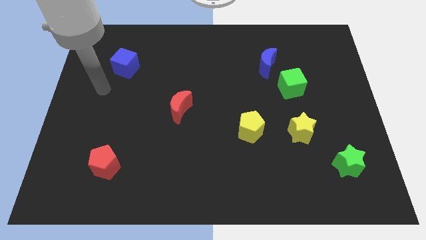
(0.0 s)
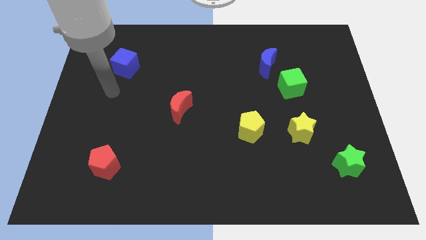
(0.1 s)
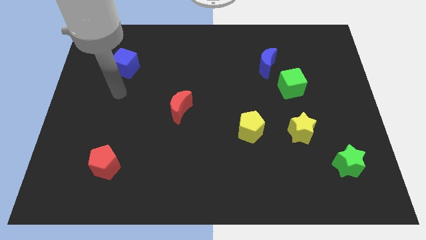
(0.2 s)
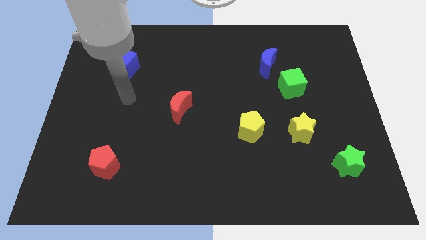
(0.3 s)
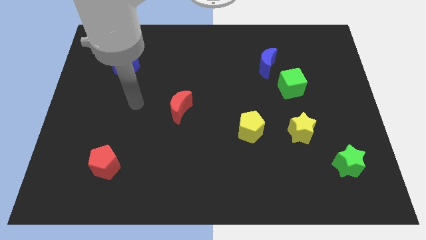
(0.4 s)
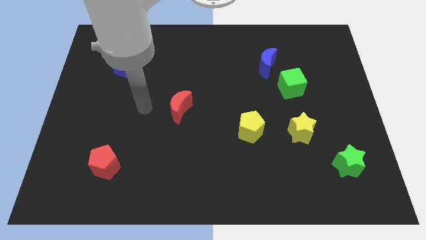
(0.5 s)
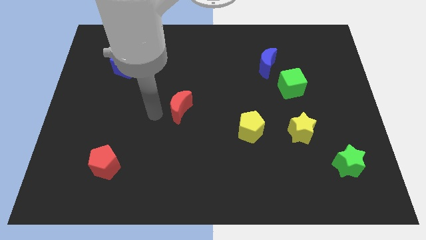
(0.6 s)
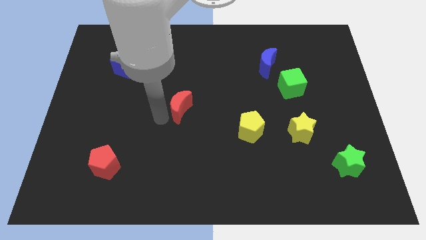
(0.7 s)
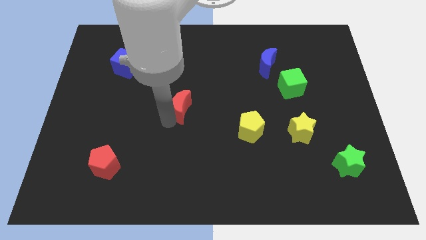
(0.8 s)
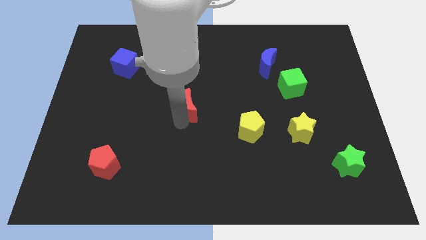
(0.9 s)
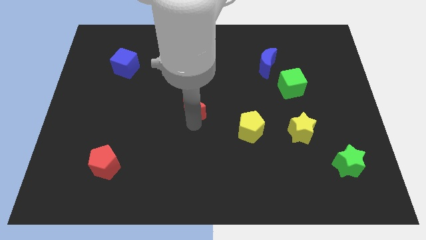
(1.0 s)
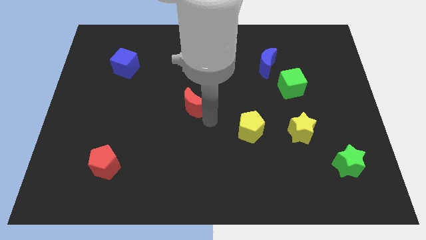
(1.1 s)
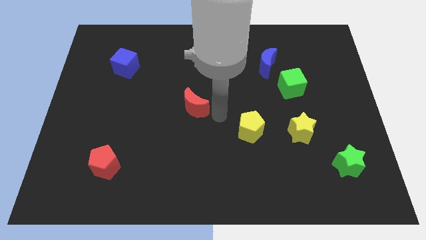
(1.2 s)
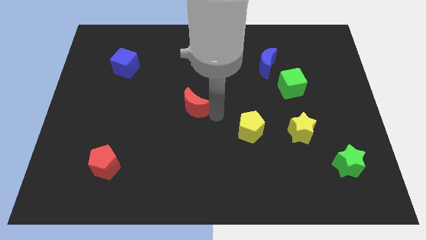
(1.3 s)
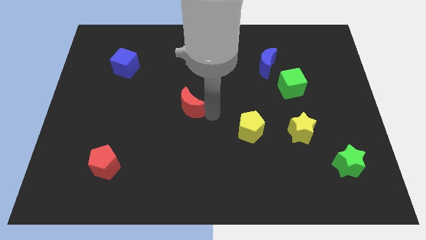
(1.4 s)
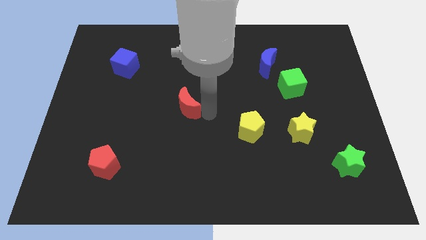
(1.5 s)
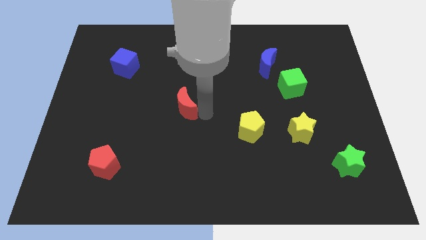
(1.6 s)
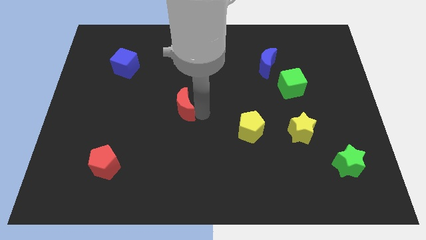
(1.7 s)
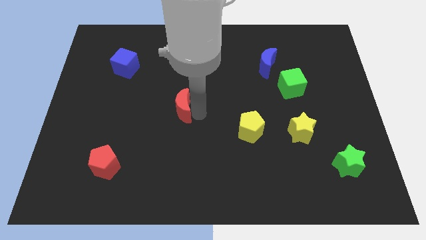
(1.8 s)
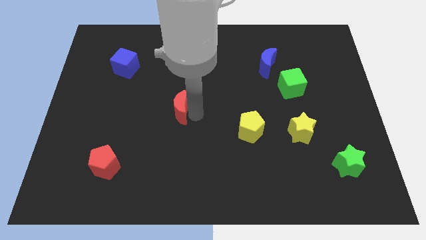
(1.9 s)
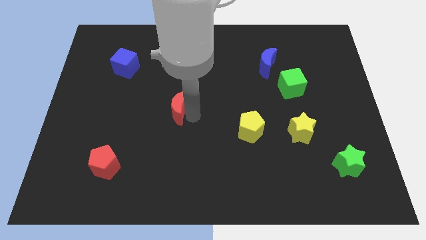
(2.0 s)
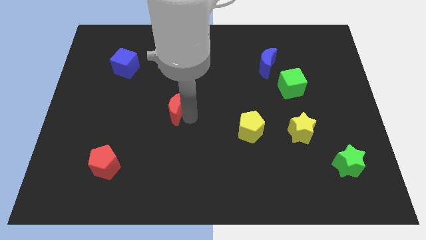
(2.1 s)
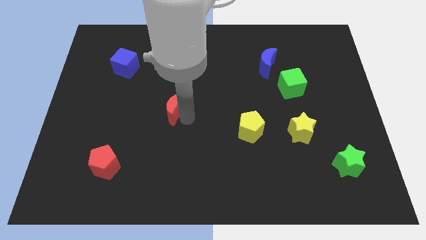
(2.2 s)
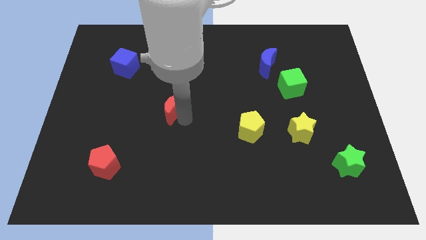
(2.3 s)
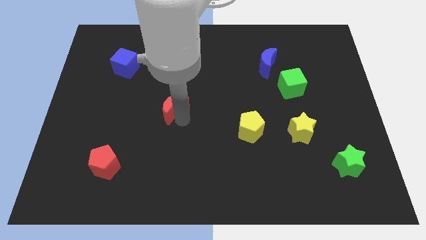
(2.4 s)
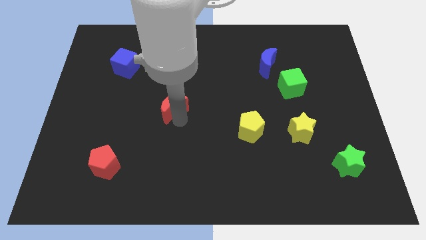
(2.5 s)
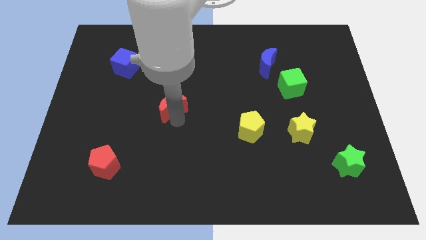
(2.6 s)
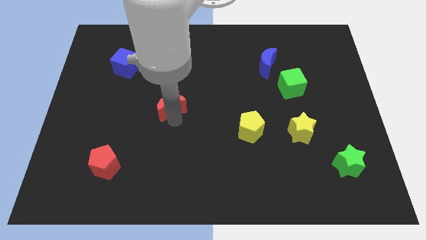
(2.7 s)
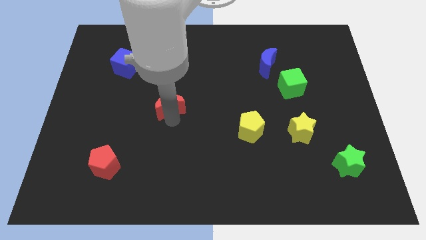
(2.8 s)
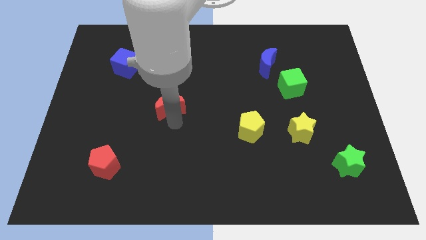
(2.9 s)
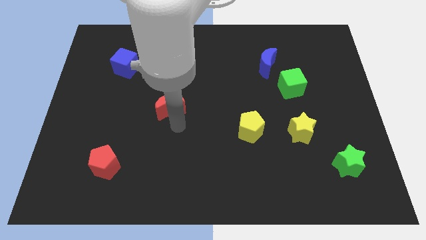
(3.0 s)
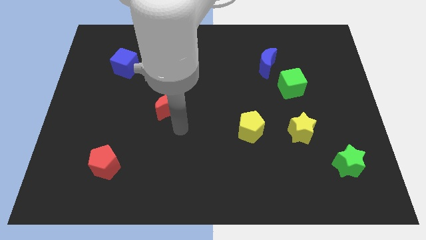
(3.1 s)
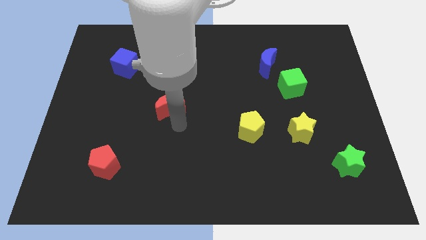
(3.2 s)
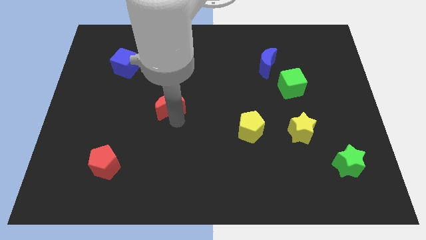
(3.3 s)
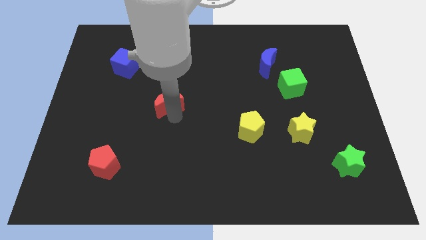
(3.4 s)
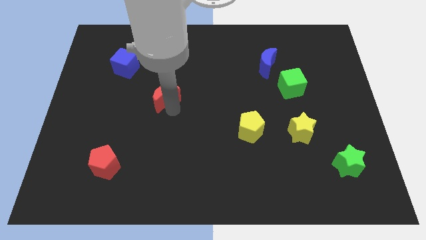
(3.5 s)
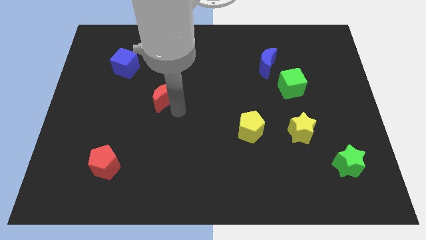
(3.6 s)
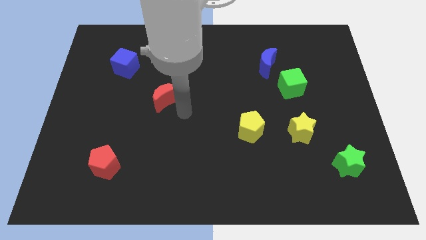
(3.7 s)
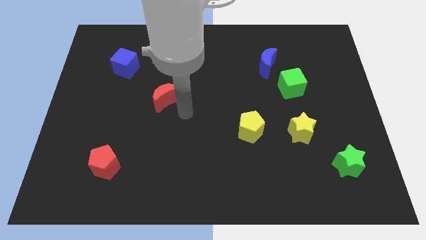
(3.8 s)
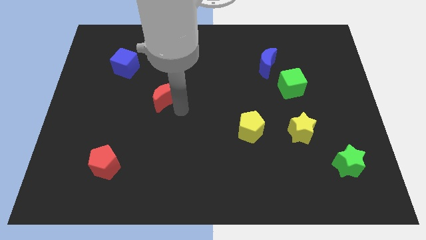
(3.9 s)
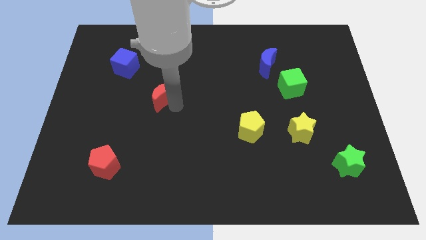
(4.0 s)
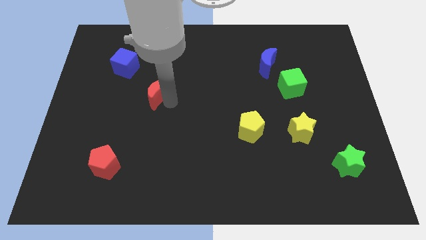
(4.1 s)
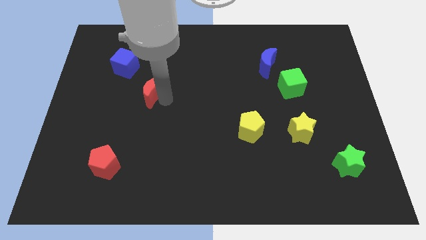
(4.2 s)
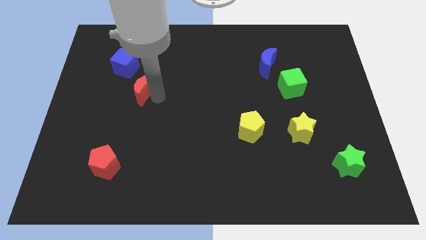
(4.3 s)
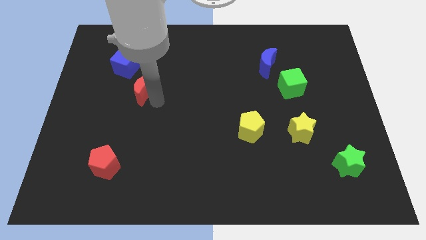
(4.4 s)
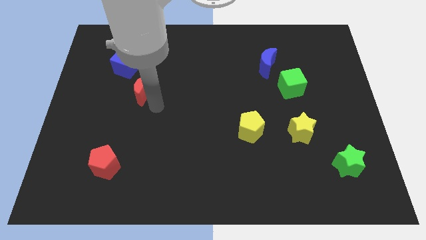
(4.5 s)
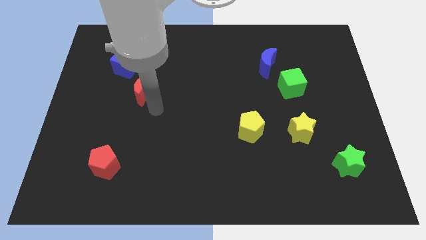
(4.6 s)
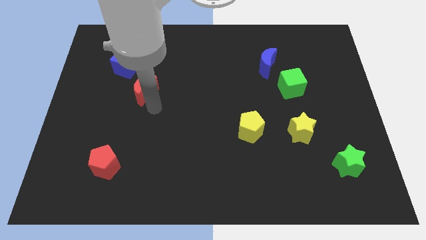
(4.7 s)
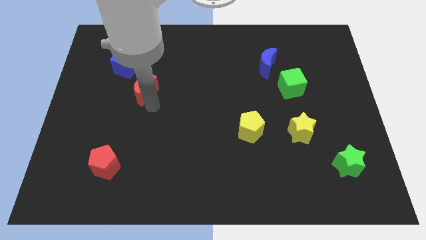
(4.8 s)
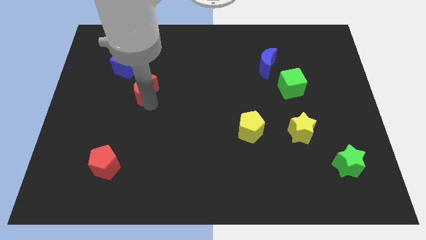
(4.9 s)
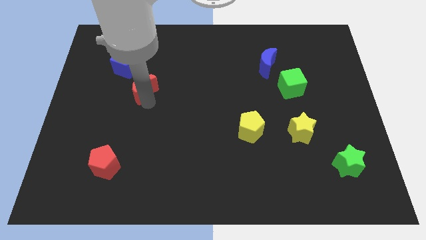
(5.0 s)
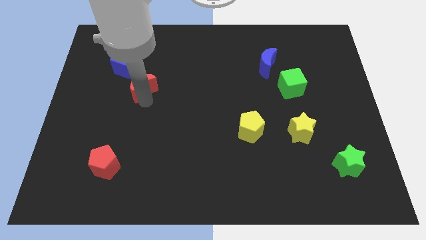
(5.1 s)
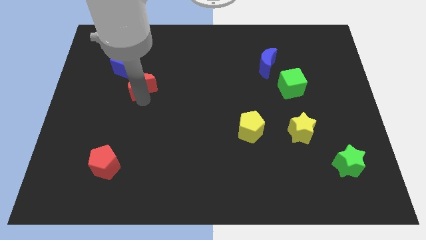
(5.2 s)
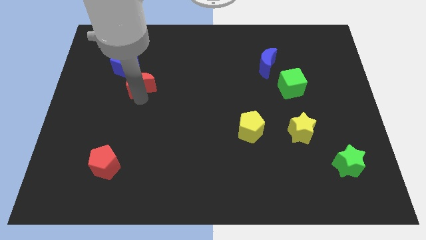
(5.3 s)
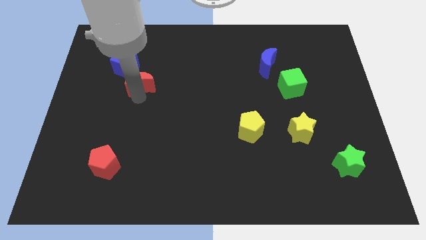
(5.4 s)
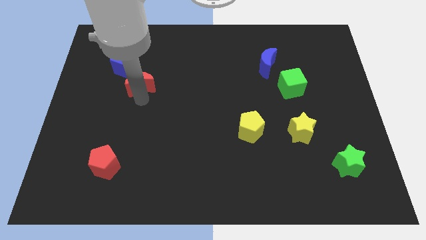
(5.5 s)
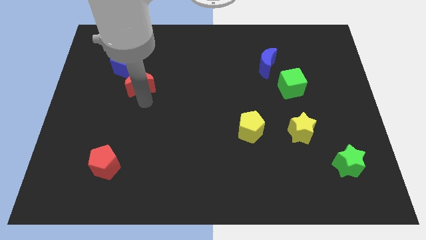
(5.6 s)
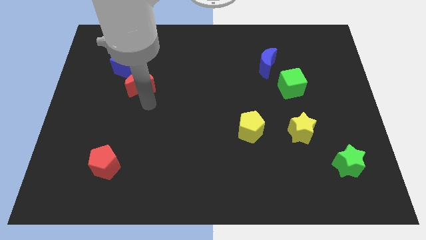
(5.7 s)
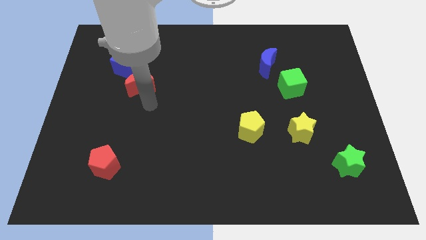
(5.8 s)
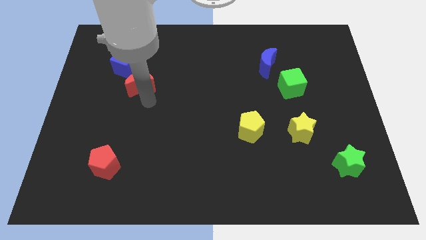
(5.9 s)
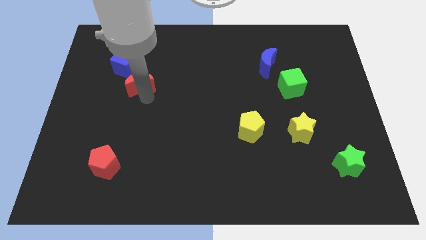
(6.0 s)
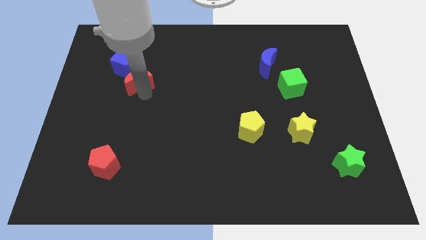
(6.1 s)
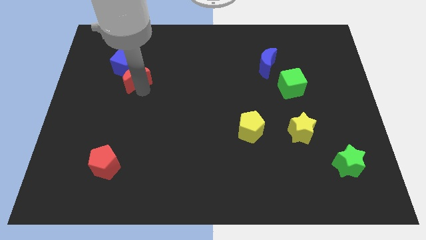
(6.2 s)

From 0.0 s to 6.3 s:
move the red moon towards the blue cube

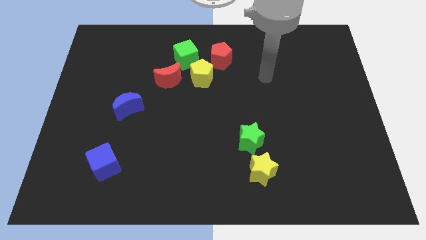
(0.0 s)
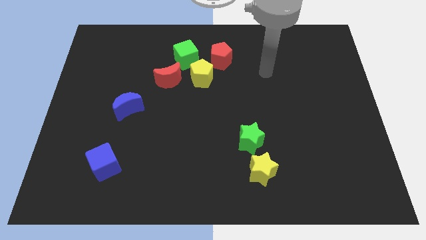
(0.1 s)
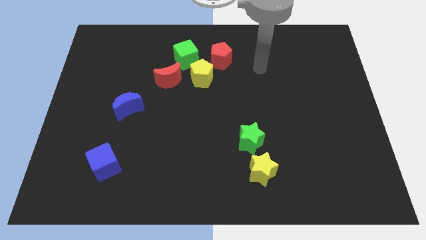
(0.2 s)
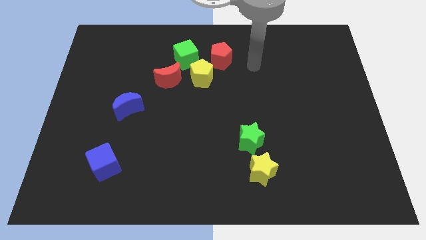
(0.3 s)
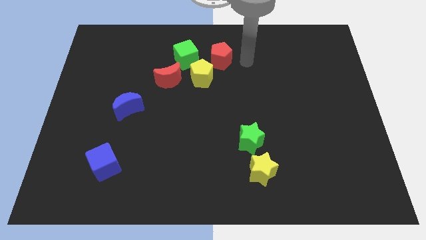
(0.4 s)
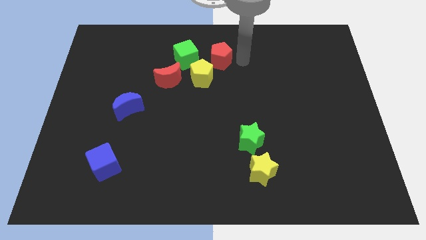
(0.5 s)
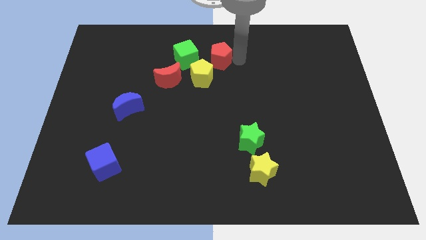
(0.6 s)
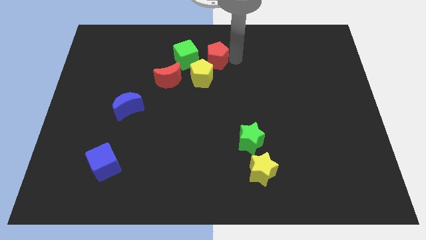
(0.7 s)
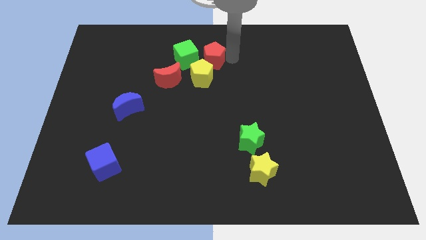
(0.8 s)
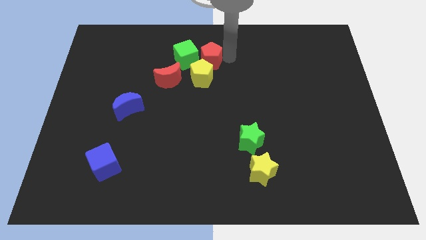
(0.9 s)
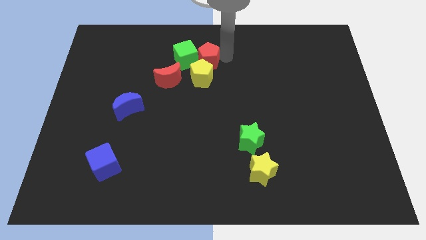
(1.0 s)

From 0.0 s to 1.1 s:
slide the red pentagon towards the green cube

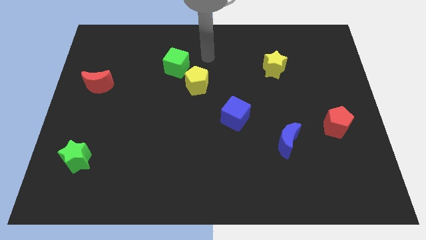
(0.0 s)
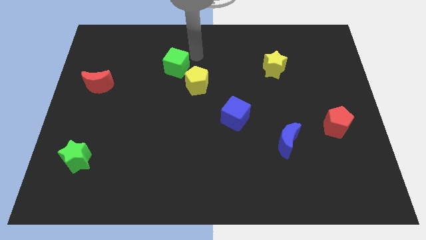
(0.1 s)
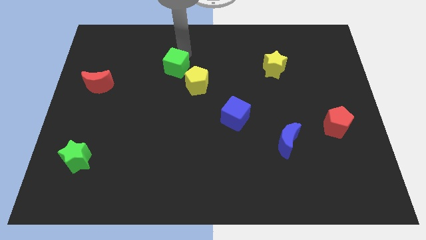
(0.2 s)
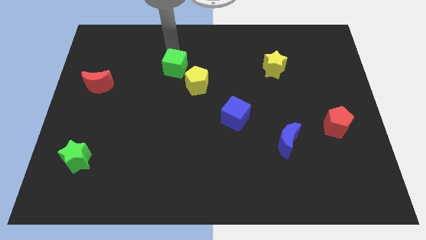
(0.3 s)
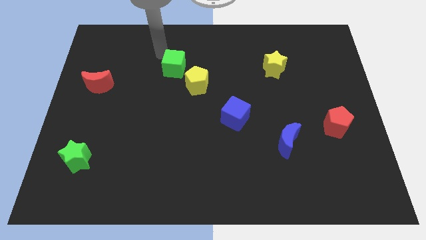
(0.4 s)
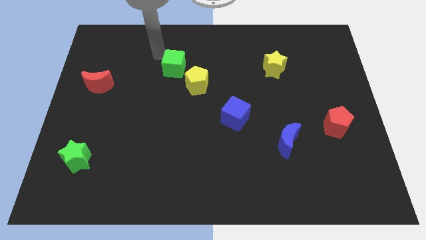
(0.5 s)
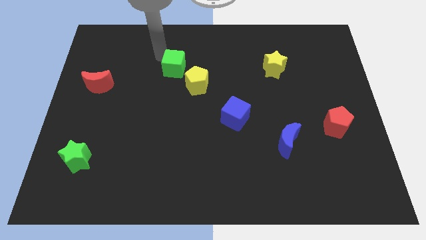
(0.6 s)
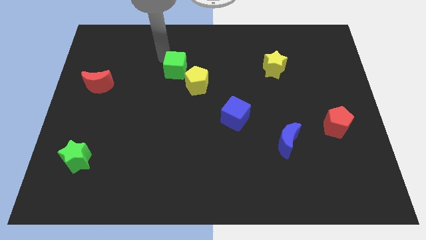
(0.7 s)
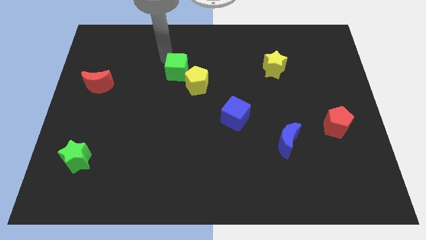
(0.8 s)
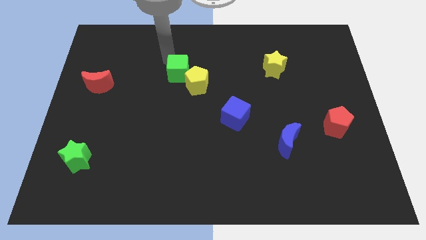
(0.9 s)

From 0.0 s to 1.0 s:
put the green cube next to the yellow pentagon
